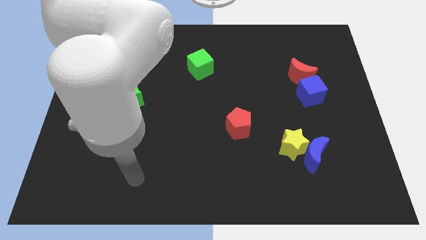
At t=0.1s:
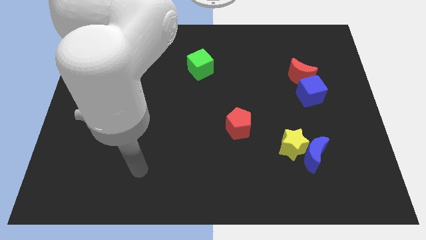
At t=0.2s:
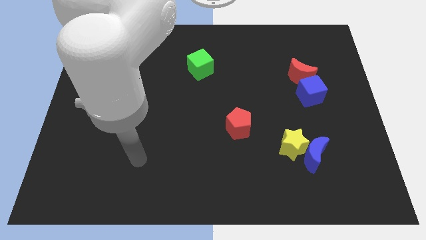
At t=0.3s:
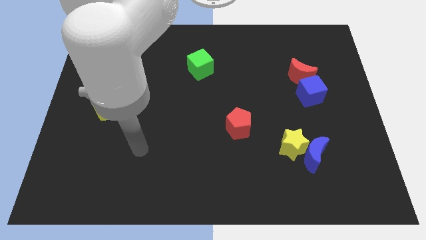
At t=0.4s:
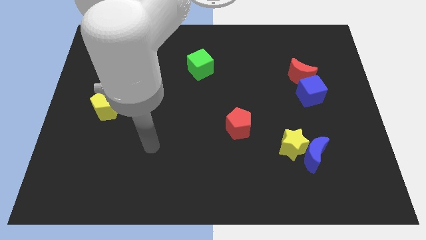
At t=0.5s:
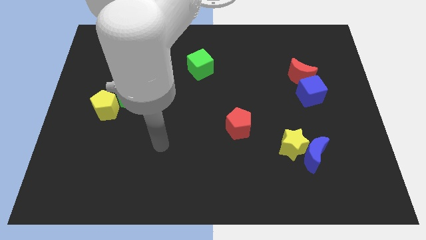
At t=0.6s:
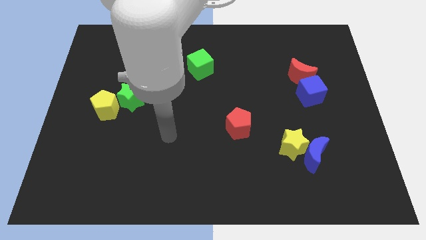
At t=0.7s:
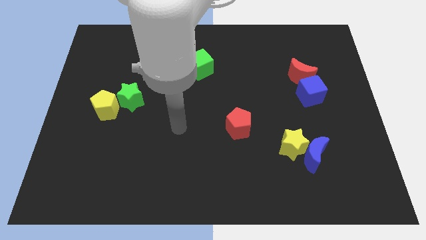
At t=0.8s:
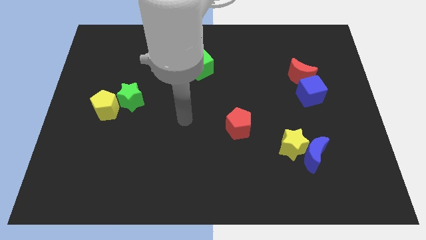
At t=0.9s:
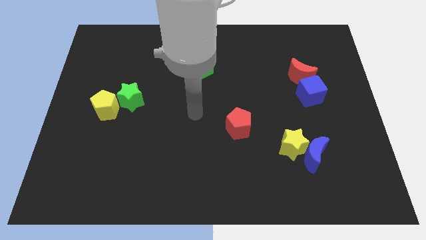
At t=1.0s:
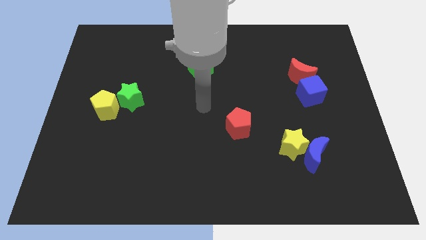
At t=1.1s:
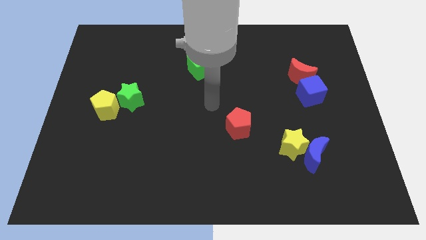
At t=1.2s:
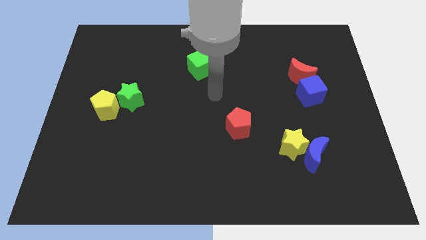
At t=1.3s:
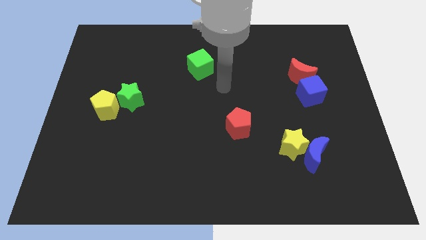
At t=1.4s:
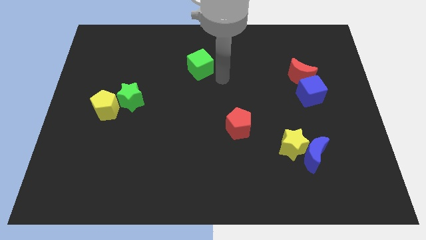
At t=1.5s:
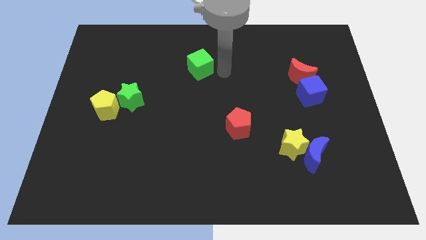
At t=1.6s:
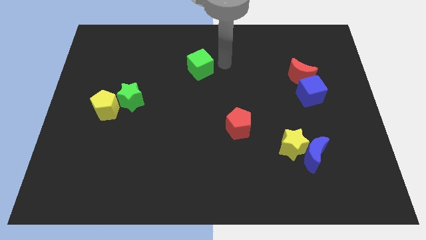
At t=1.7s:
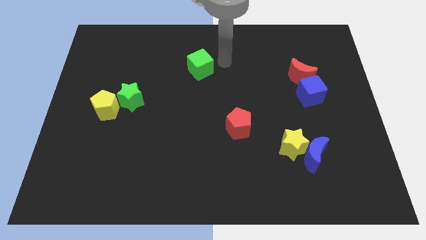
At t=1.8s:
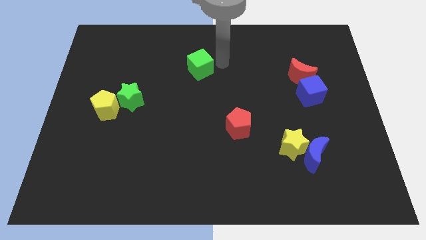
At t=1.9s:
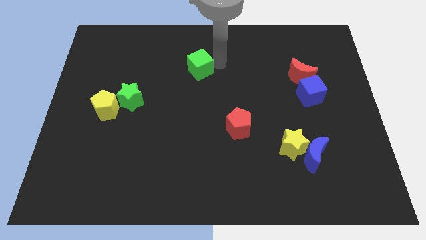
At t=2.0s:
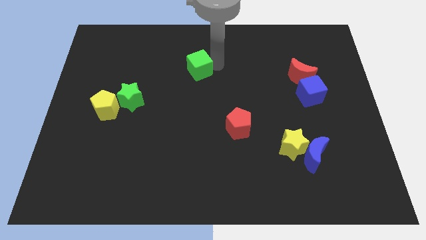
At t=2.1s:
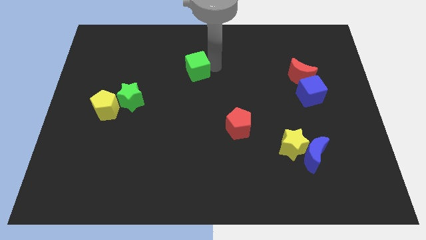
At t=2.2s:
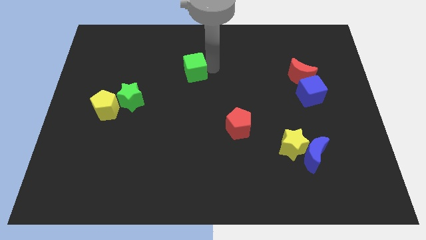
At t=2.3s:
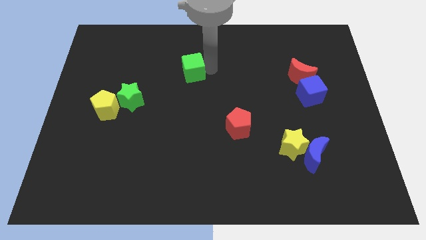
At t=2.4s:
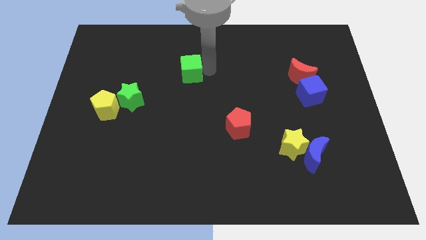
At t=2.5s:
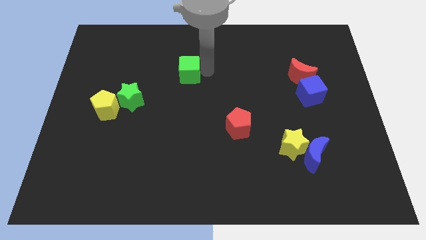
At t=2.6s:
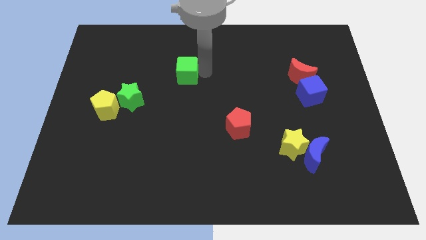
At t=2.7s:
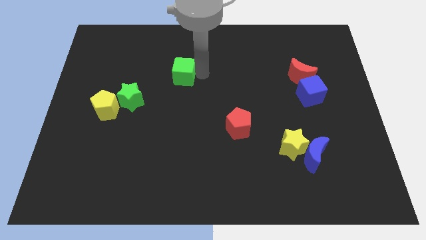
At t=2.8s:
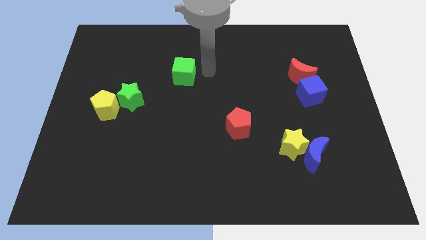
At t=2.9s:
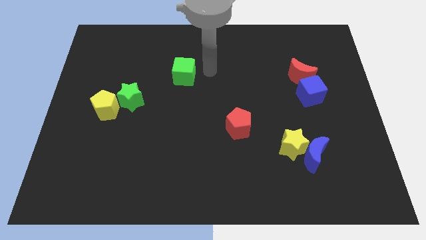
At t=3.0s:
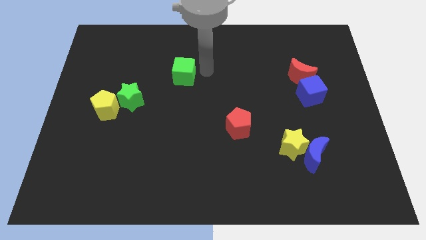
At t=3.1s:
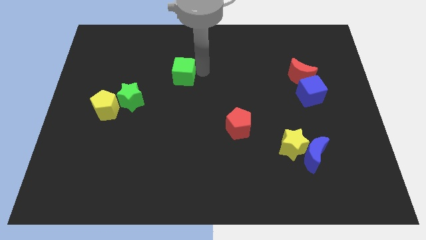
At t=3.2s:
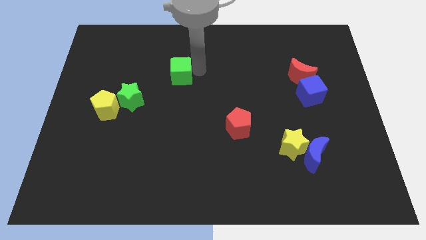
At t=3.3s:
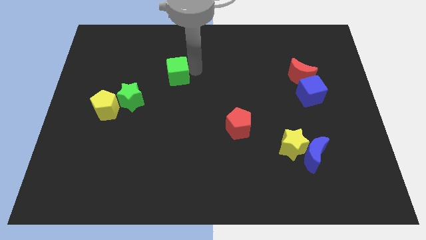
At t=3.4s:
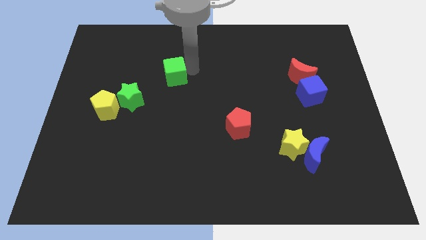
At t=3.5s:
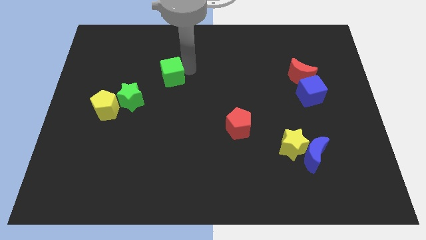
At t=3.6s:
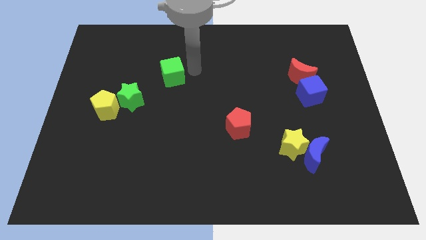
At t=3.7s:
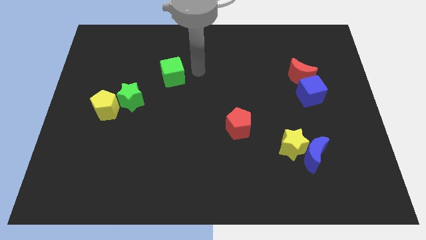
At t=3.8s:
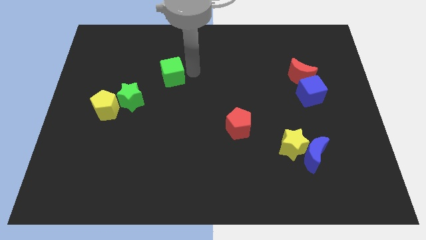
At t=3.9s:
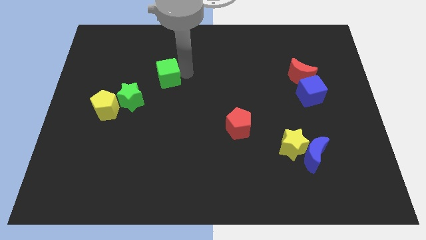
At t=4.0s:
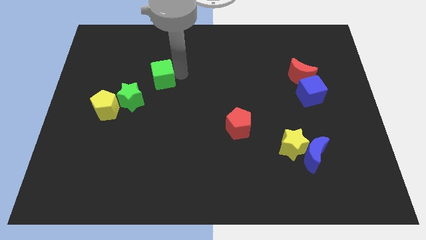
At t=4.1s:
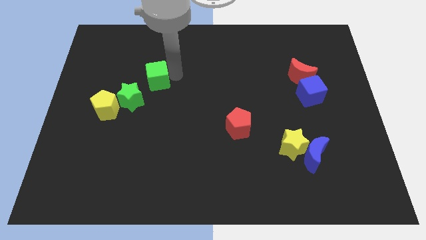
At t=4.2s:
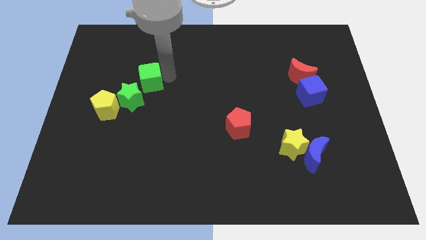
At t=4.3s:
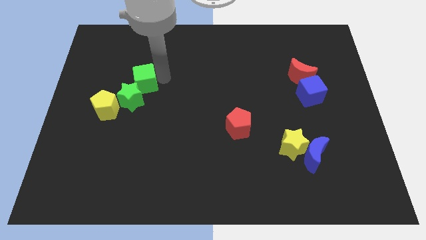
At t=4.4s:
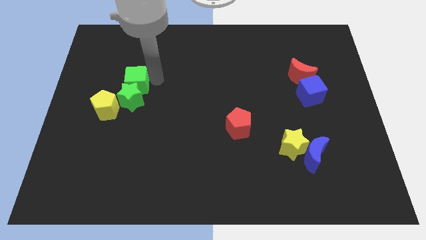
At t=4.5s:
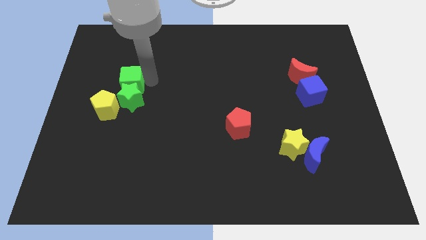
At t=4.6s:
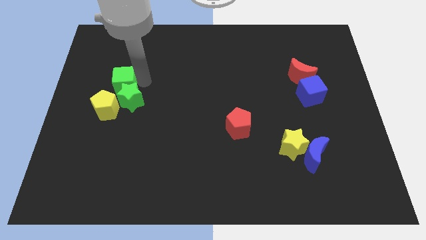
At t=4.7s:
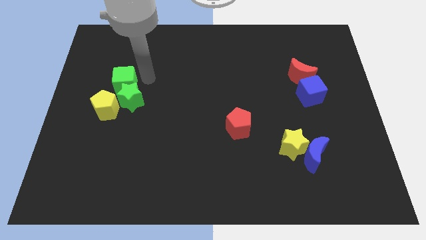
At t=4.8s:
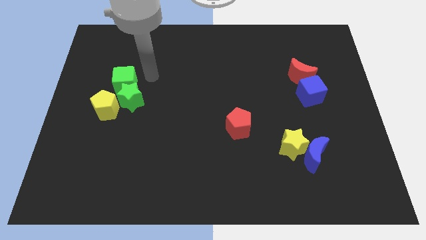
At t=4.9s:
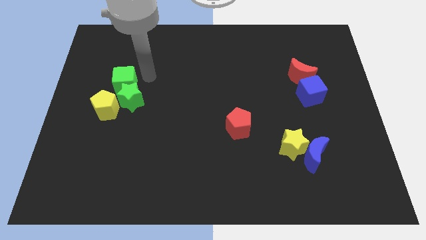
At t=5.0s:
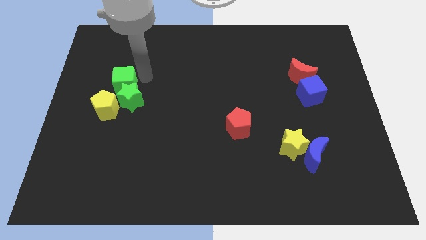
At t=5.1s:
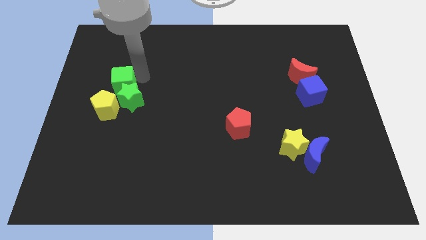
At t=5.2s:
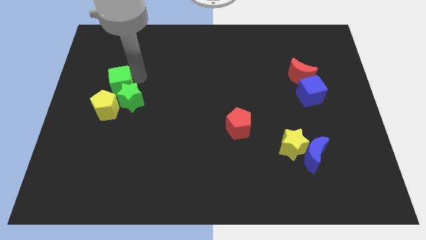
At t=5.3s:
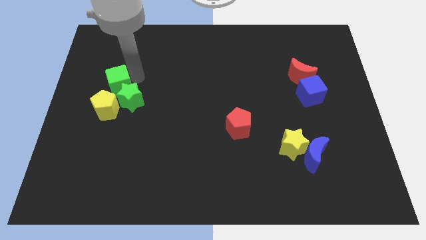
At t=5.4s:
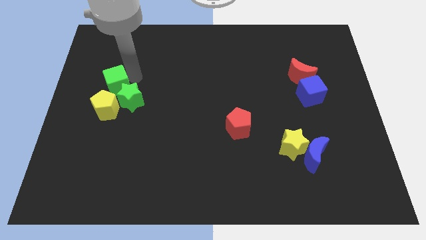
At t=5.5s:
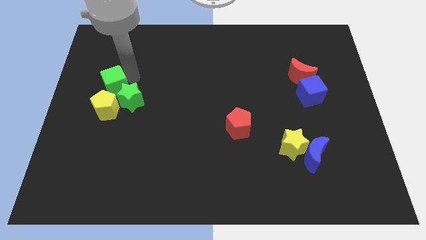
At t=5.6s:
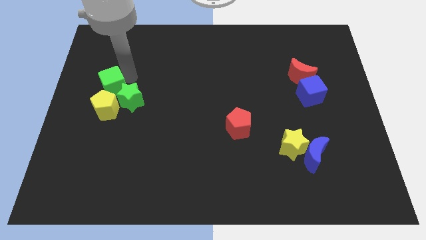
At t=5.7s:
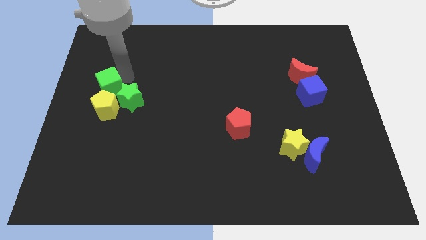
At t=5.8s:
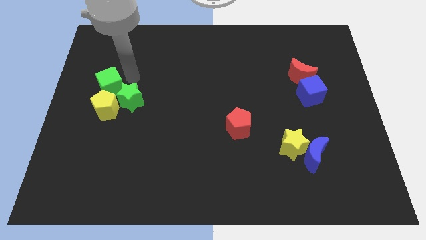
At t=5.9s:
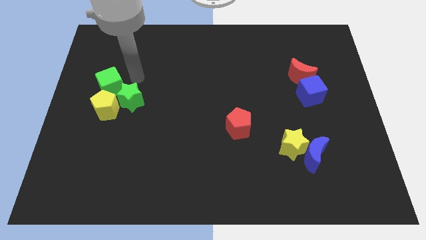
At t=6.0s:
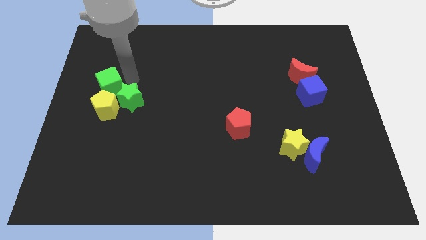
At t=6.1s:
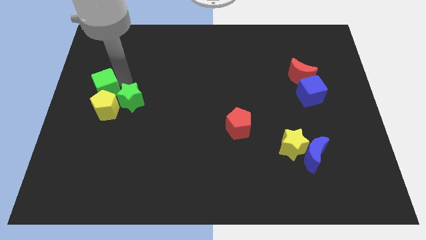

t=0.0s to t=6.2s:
slide the green cube to the left side of the board
